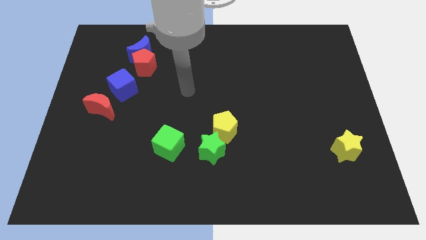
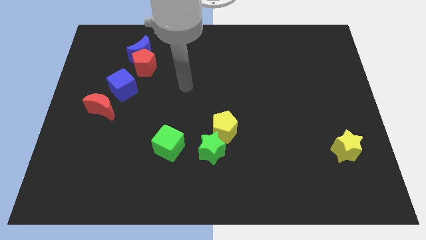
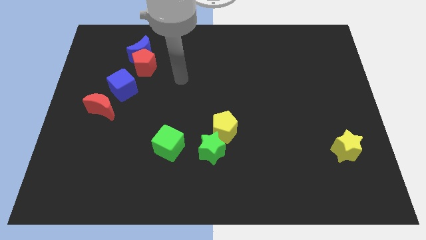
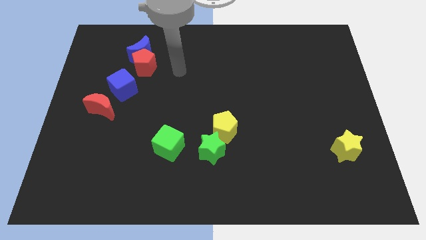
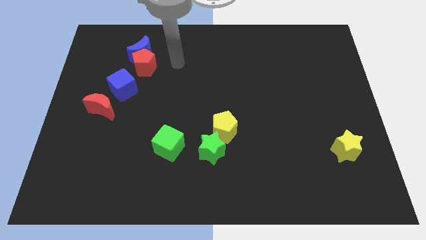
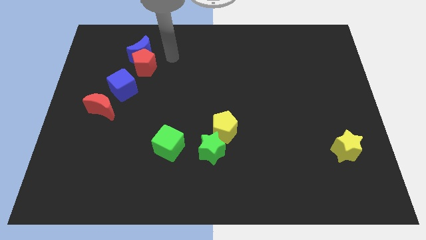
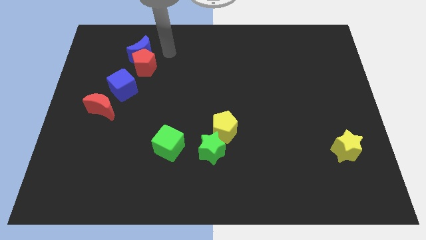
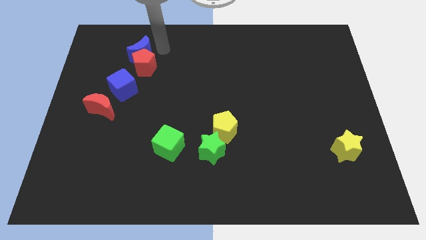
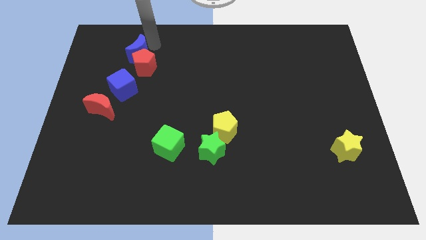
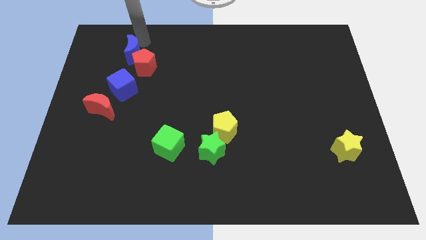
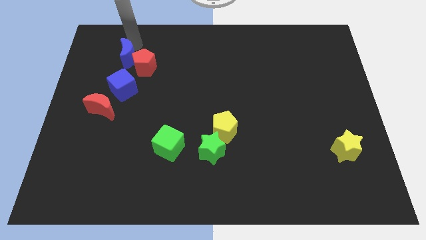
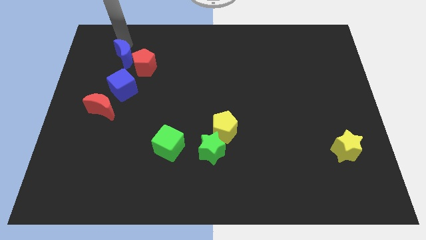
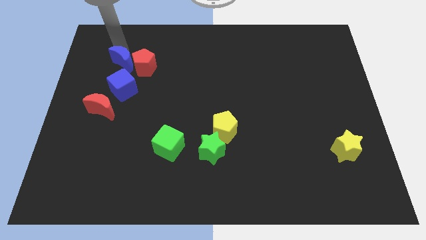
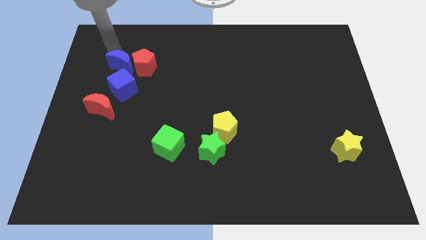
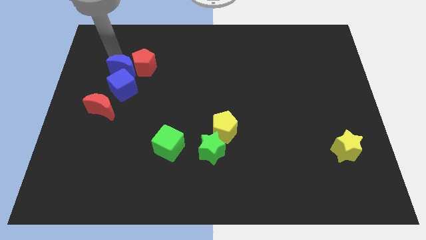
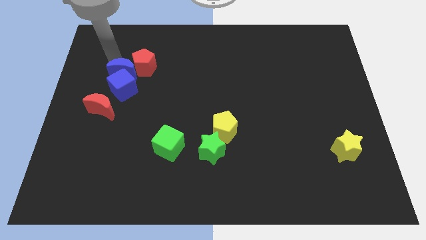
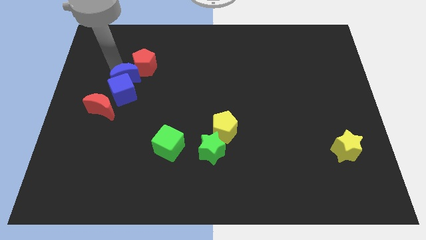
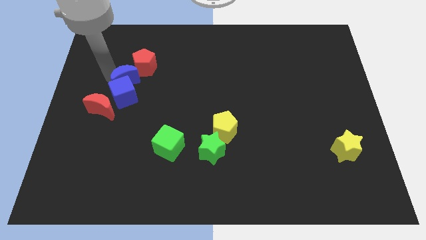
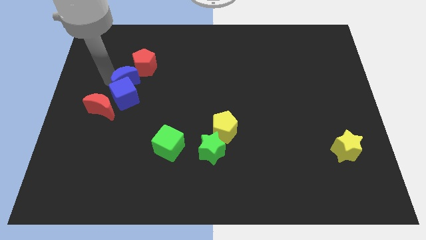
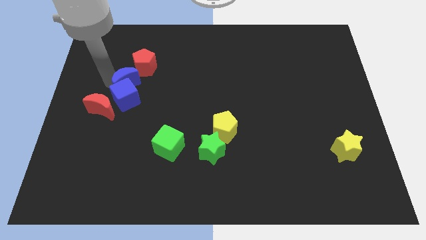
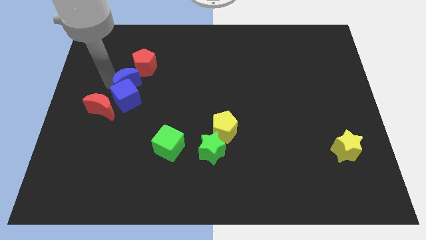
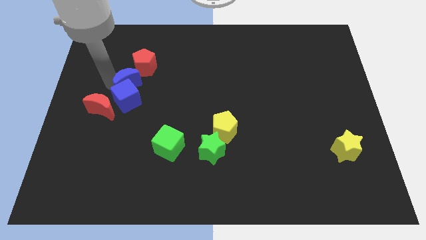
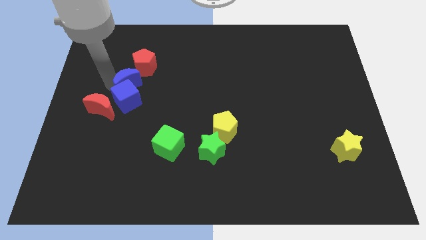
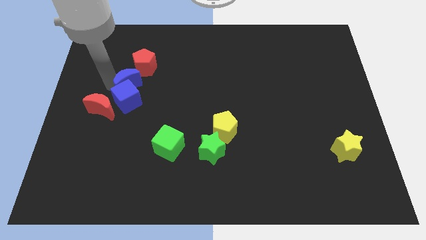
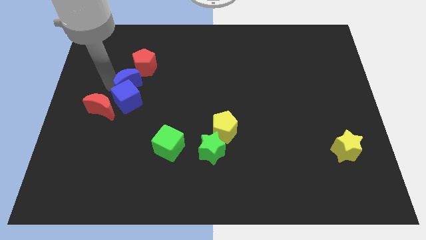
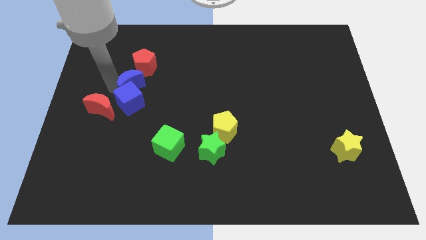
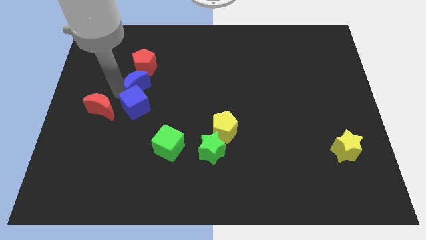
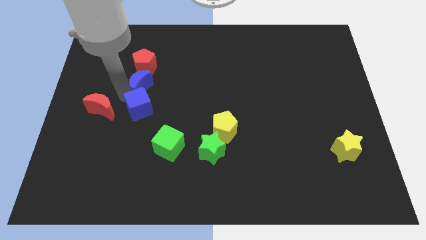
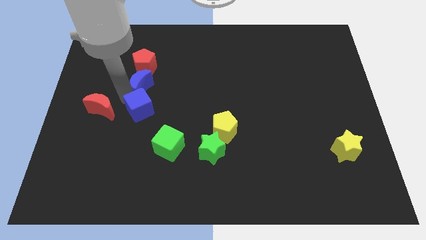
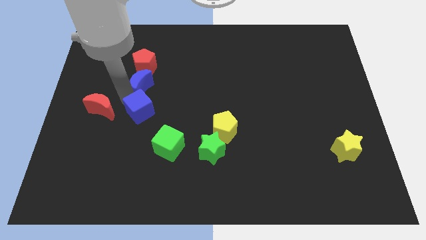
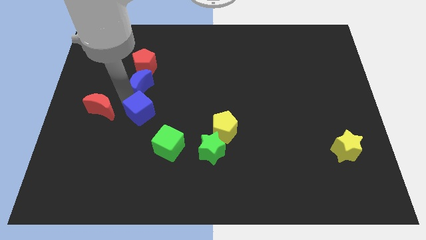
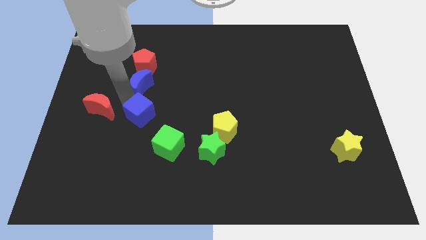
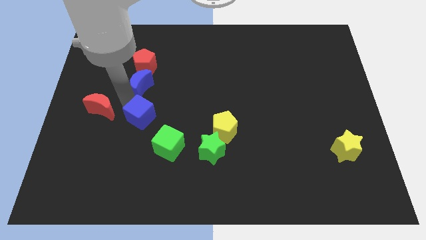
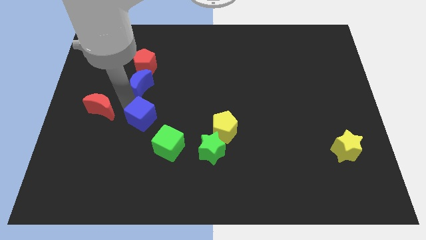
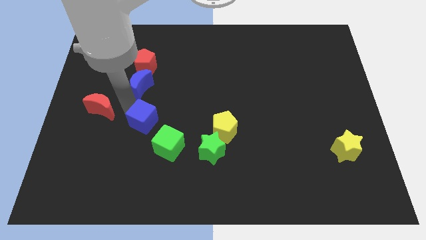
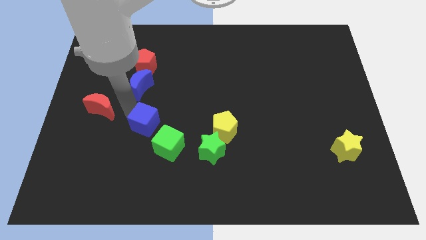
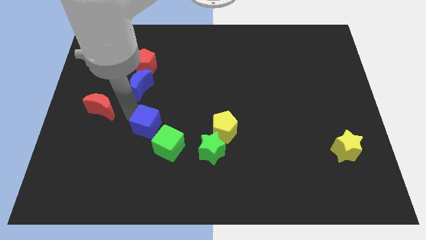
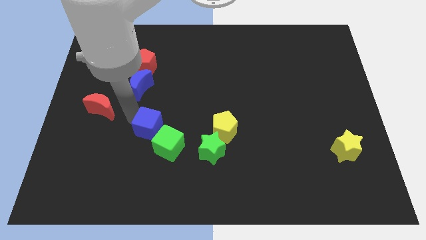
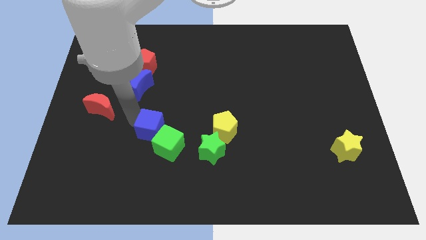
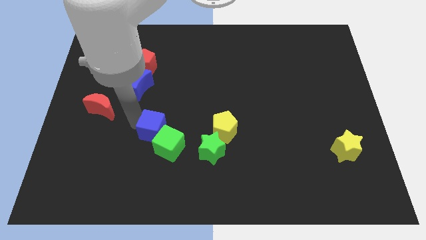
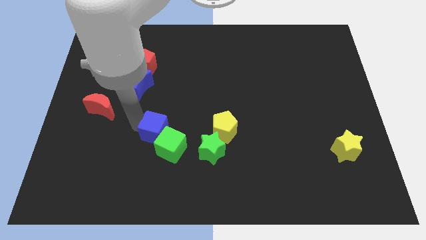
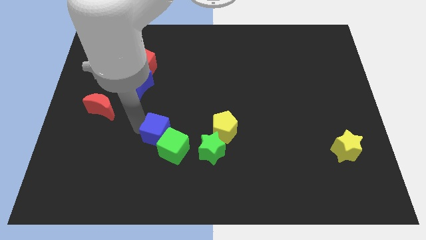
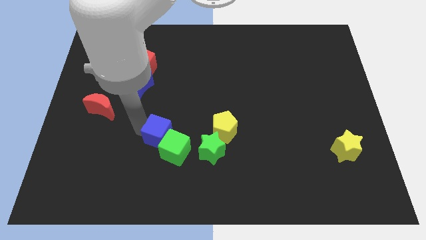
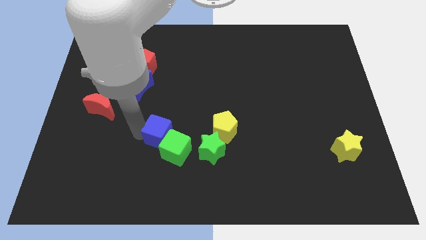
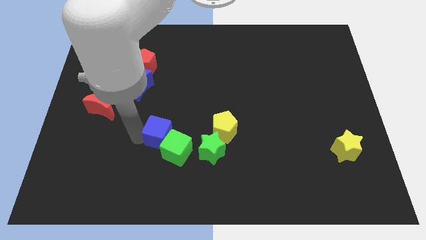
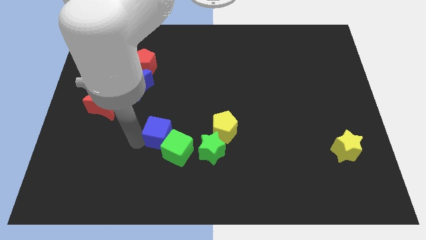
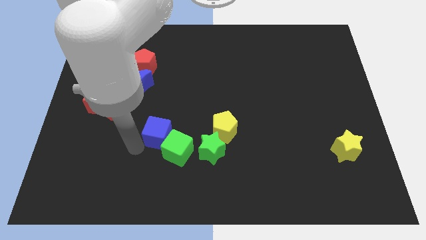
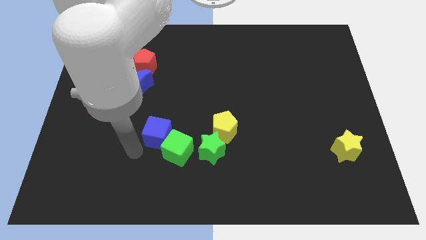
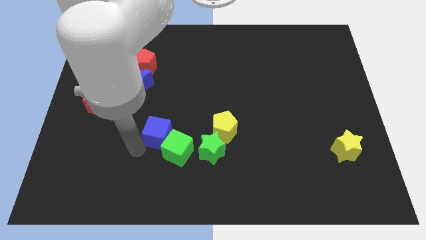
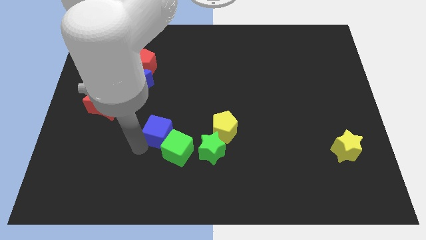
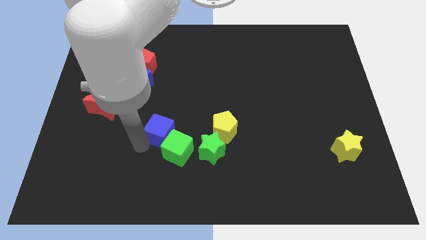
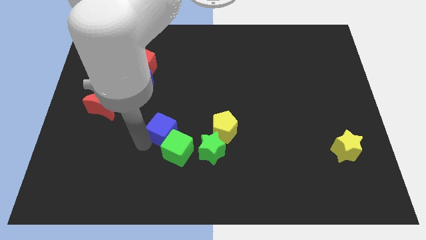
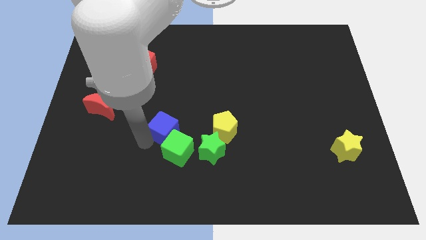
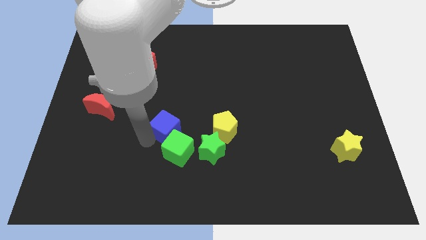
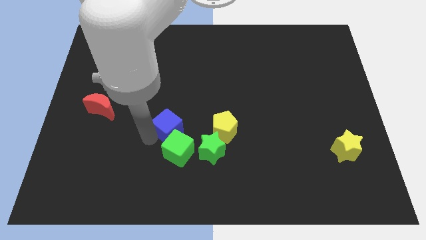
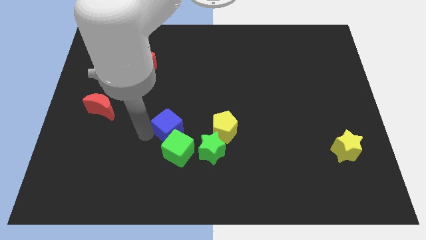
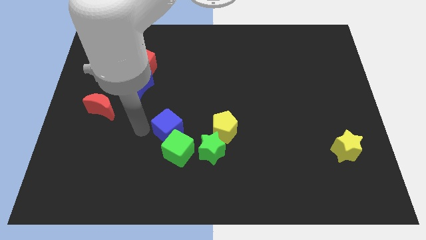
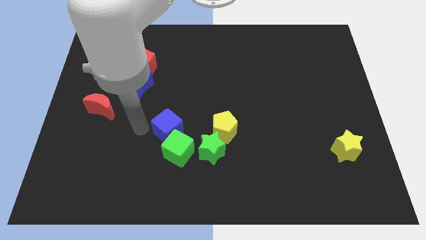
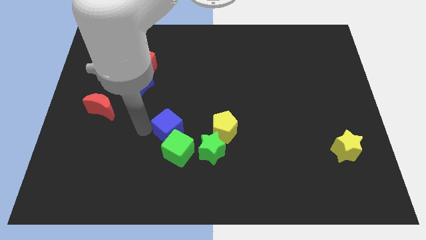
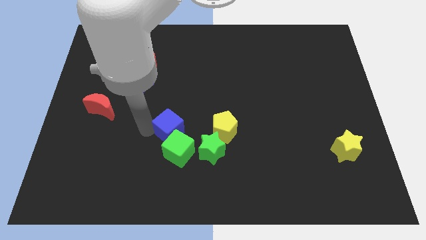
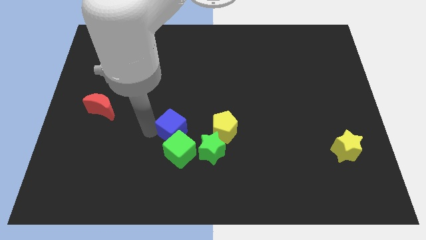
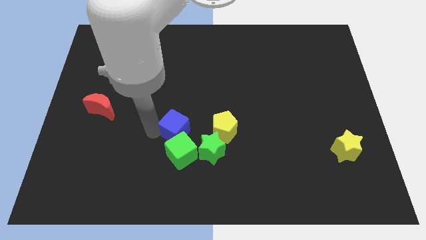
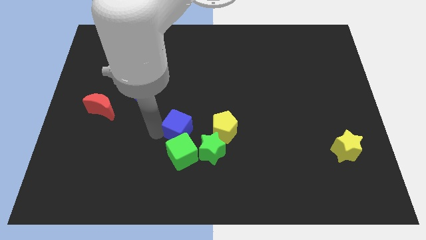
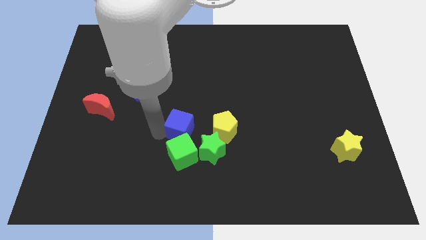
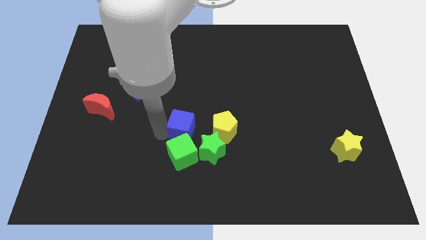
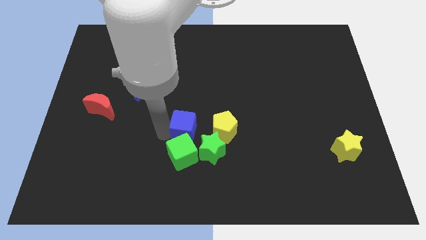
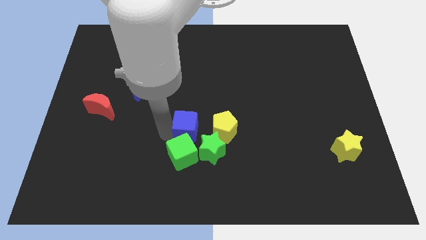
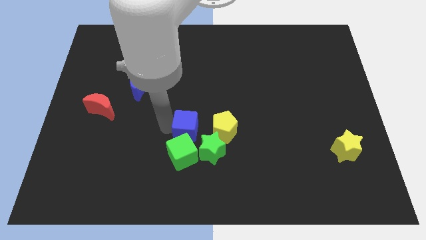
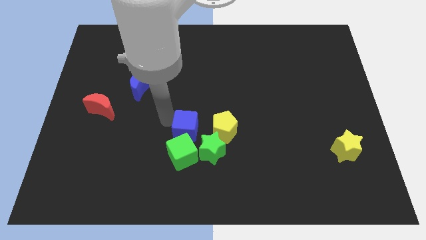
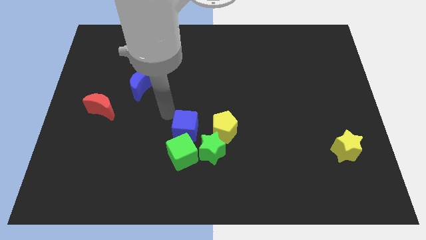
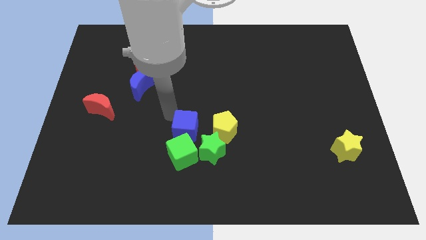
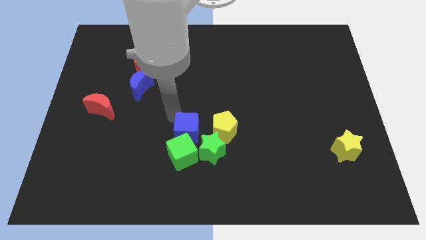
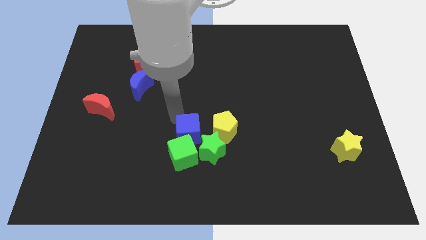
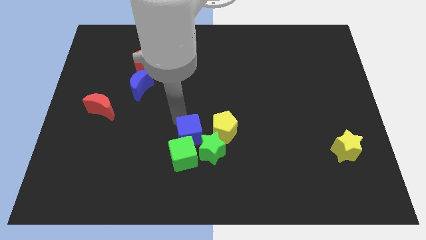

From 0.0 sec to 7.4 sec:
push the blue cube to the green star
